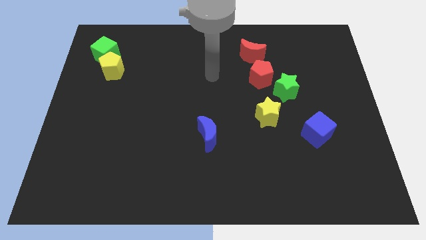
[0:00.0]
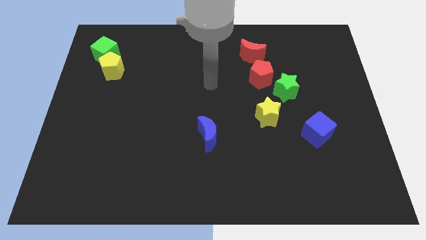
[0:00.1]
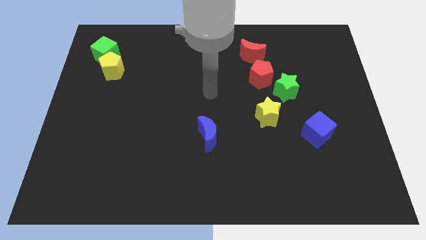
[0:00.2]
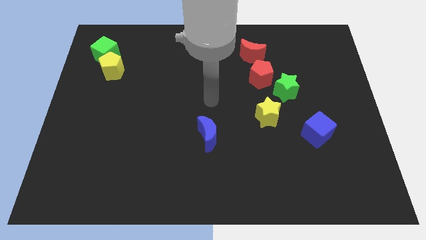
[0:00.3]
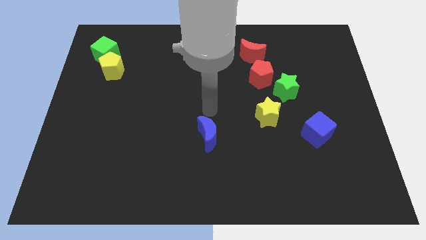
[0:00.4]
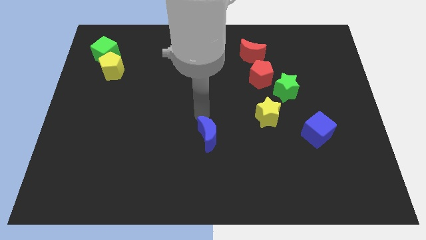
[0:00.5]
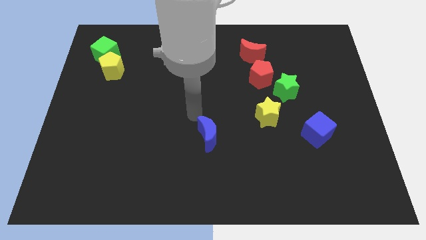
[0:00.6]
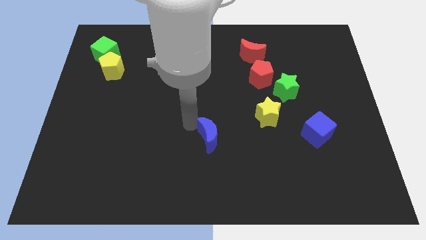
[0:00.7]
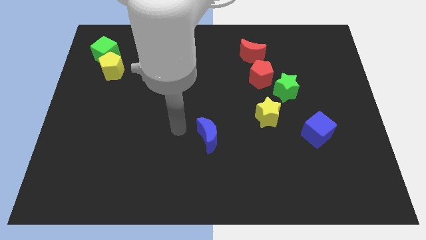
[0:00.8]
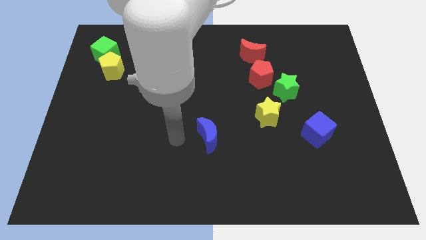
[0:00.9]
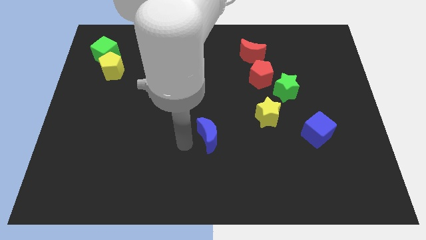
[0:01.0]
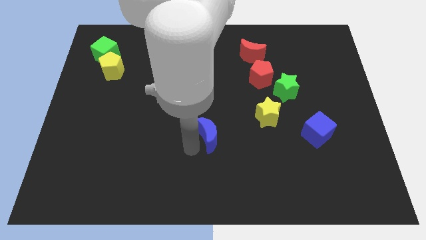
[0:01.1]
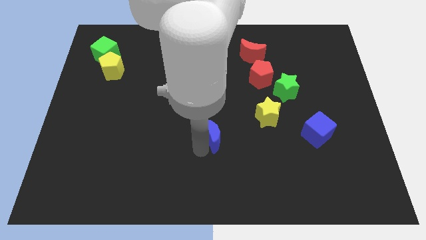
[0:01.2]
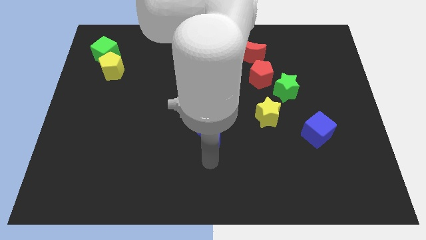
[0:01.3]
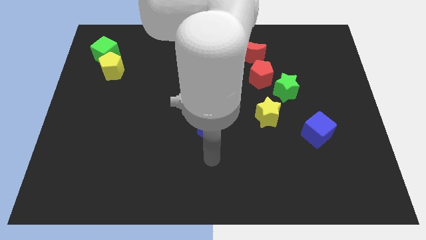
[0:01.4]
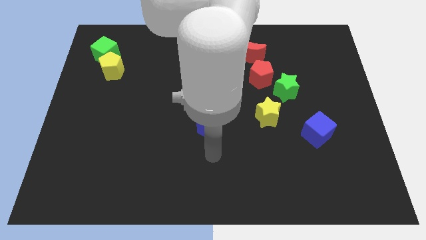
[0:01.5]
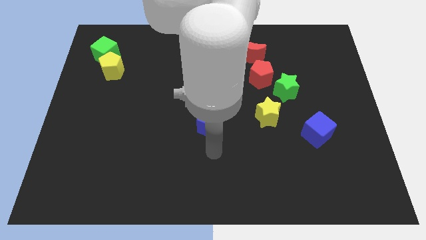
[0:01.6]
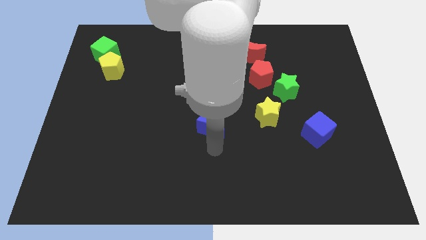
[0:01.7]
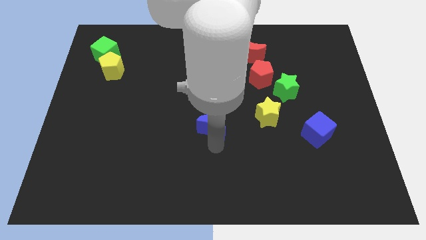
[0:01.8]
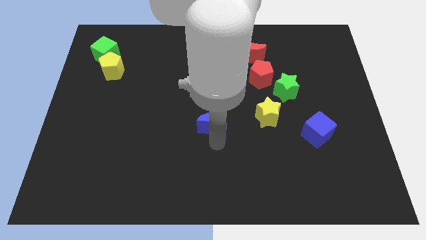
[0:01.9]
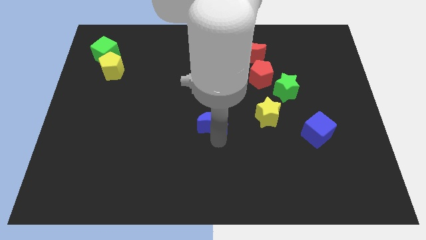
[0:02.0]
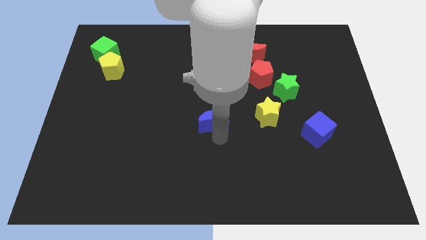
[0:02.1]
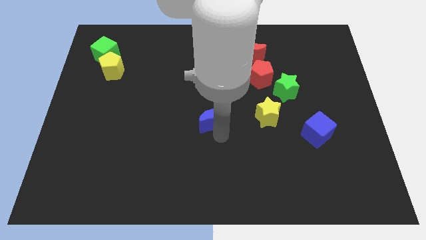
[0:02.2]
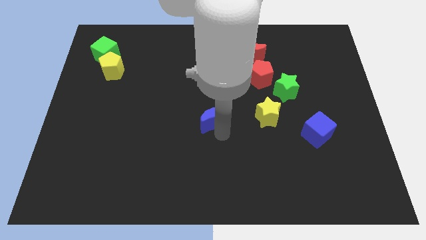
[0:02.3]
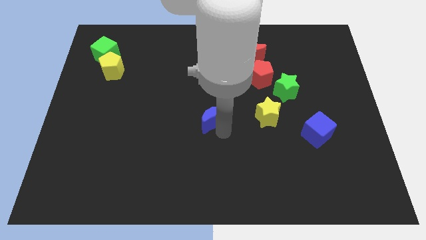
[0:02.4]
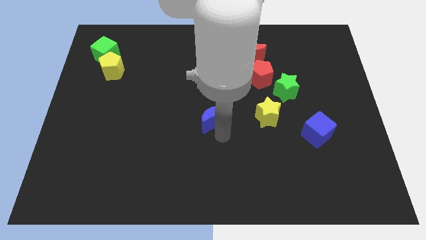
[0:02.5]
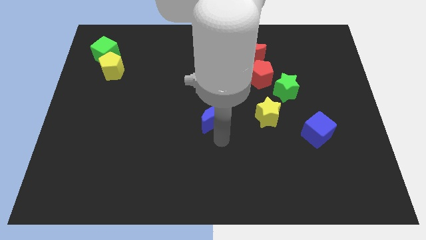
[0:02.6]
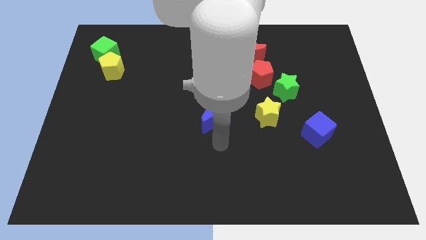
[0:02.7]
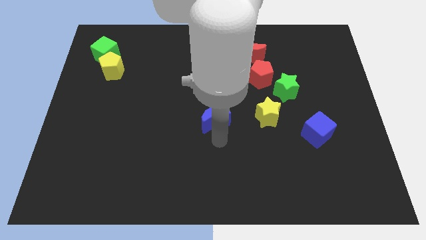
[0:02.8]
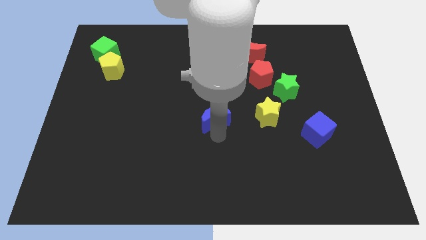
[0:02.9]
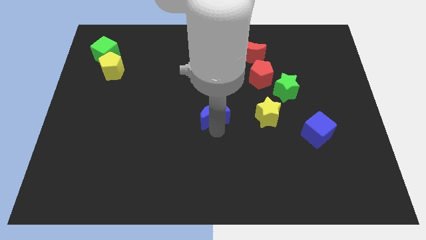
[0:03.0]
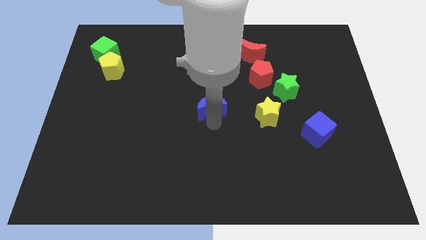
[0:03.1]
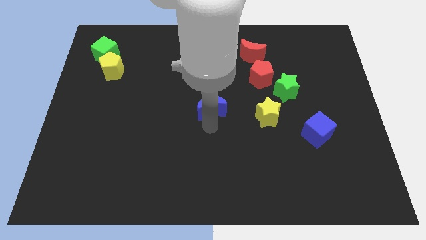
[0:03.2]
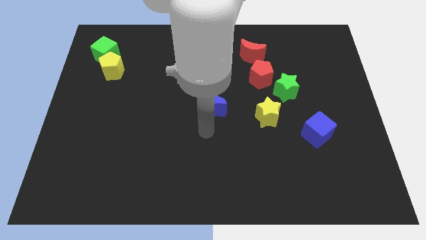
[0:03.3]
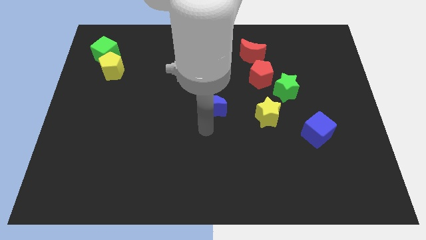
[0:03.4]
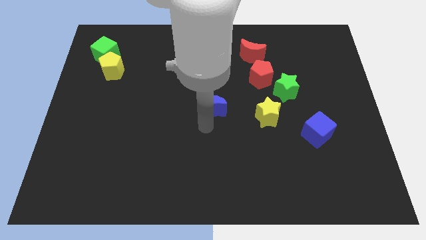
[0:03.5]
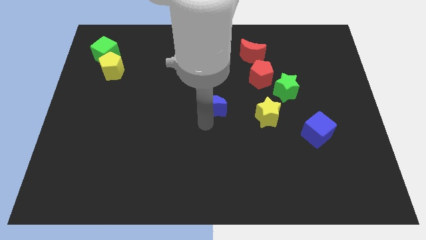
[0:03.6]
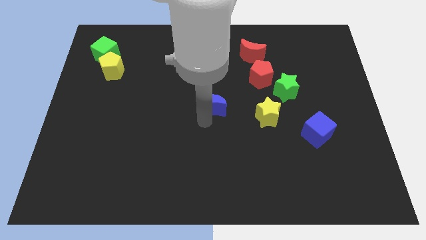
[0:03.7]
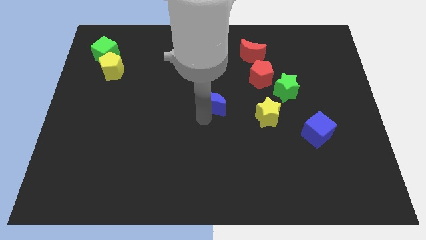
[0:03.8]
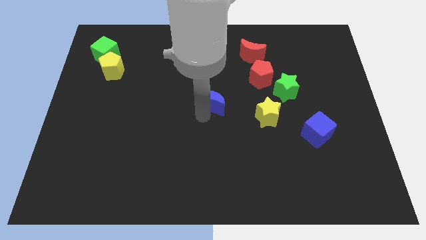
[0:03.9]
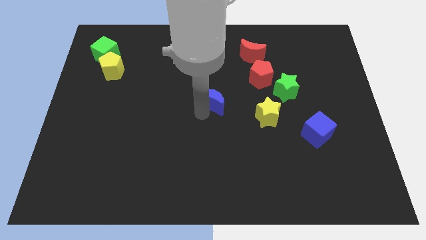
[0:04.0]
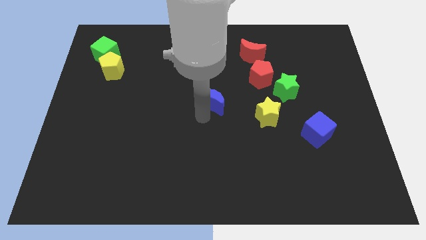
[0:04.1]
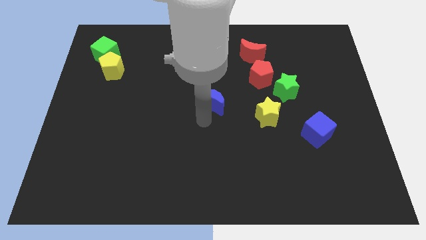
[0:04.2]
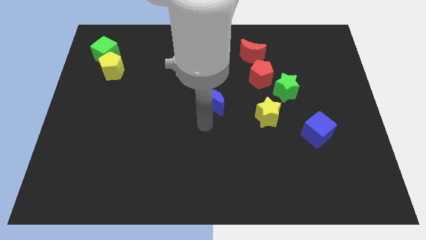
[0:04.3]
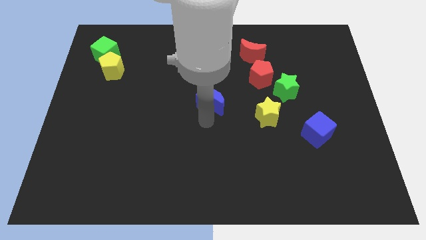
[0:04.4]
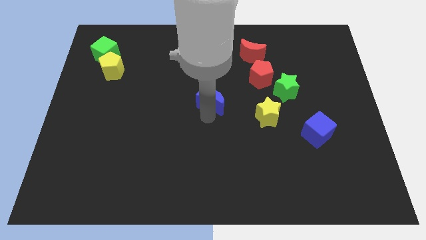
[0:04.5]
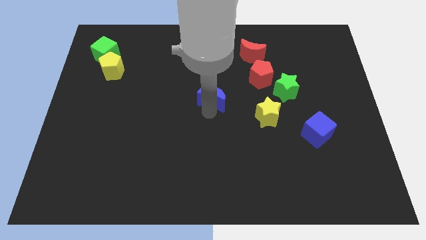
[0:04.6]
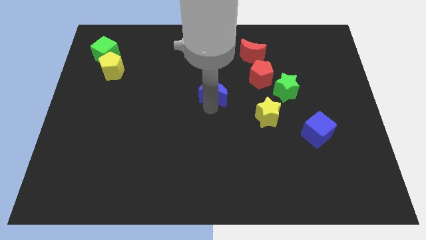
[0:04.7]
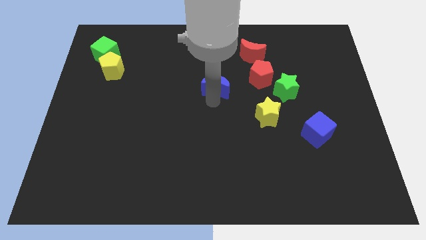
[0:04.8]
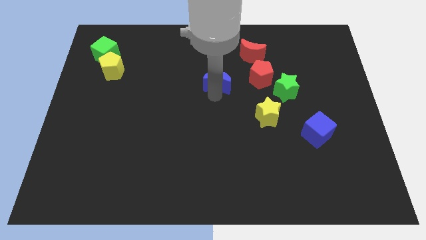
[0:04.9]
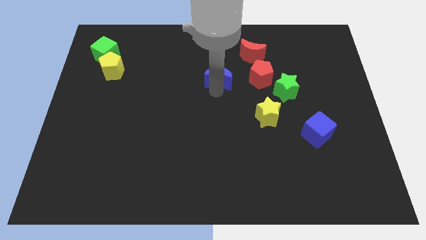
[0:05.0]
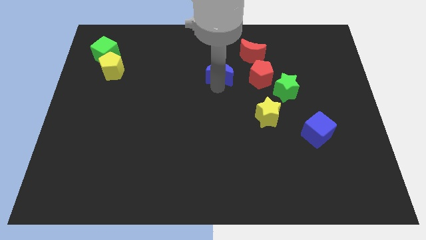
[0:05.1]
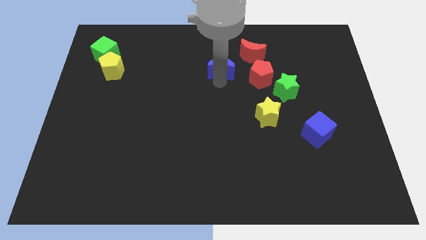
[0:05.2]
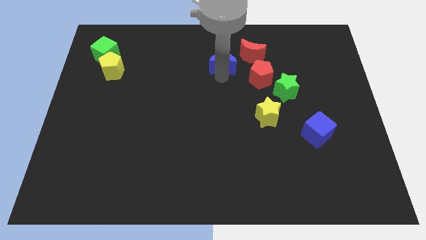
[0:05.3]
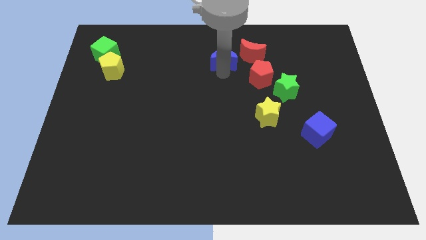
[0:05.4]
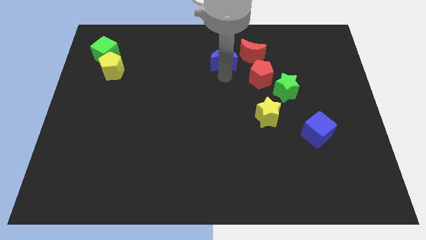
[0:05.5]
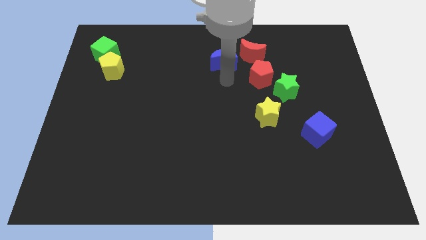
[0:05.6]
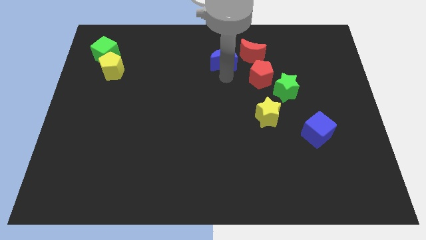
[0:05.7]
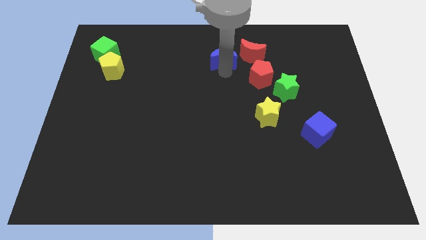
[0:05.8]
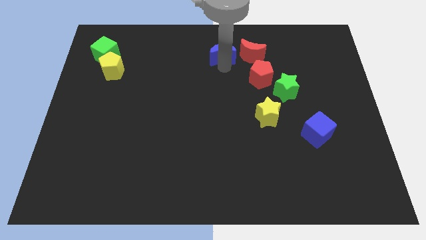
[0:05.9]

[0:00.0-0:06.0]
move the blue moon to the towards your base
